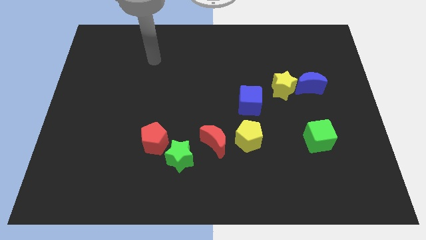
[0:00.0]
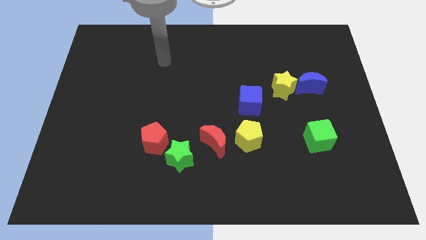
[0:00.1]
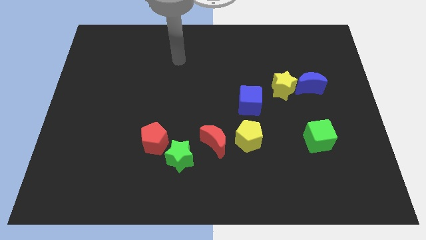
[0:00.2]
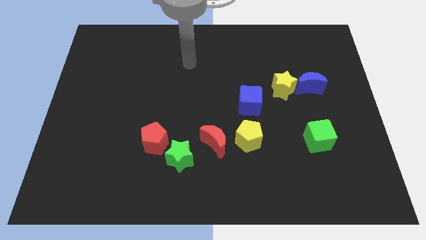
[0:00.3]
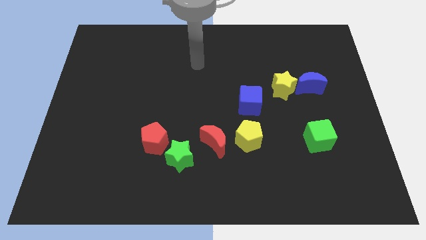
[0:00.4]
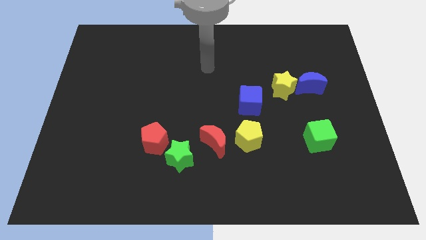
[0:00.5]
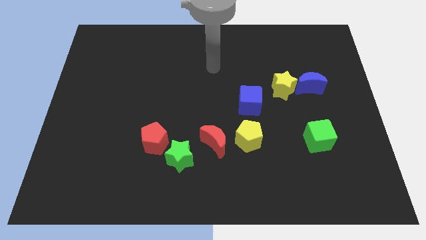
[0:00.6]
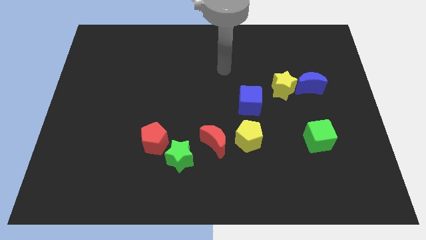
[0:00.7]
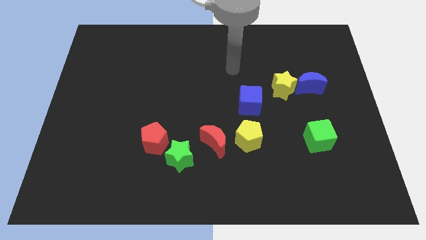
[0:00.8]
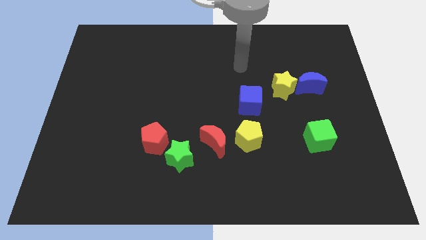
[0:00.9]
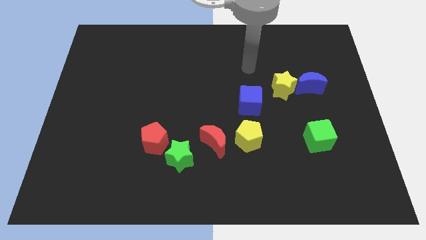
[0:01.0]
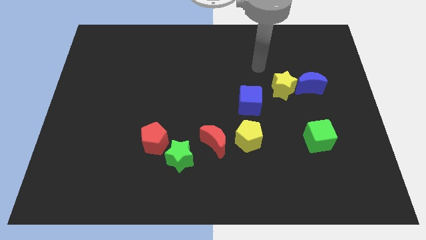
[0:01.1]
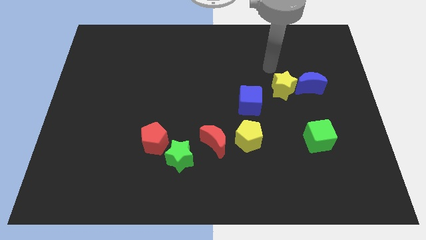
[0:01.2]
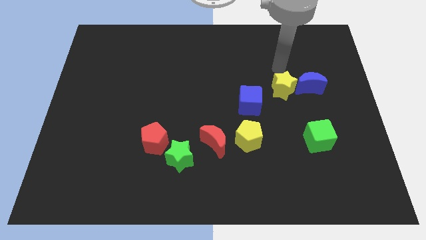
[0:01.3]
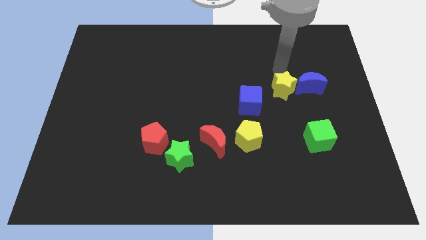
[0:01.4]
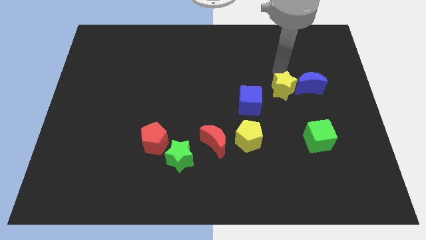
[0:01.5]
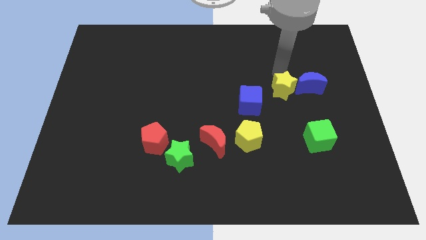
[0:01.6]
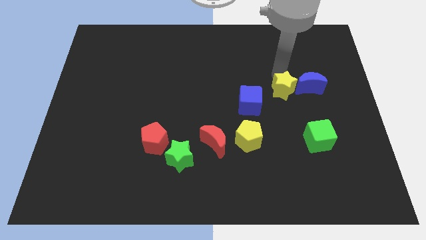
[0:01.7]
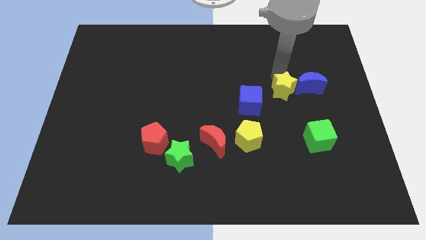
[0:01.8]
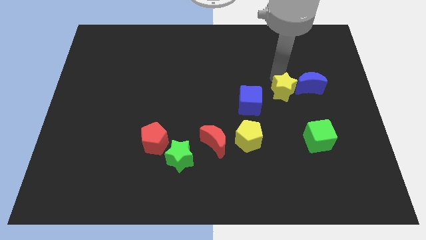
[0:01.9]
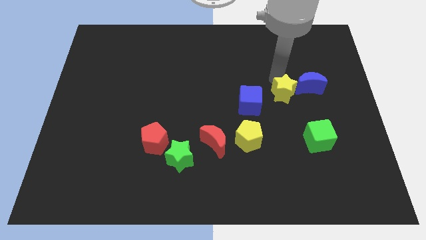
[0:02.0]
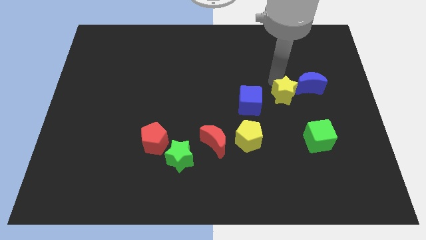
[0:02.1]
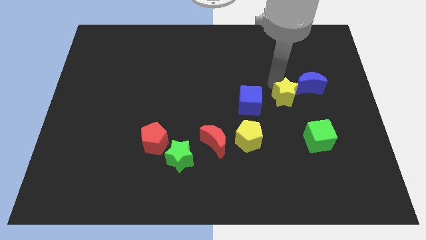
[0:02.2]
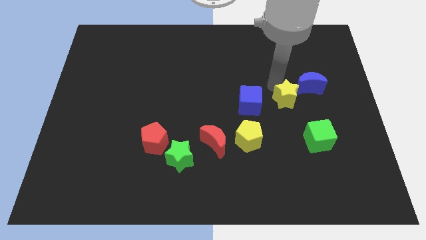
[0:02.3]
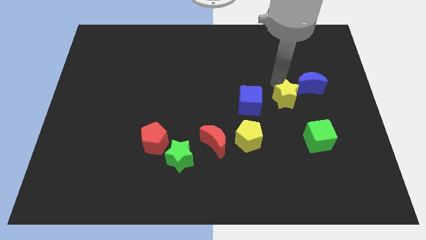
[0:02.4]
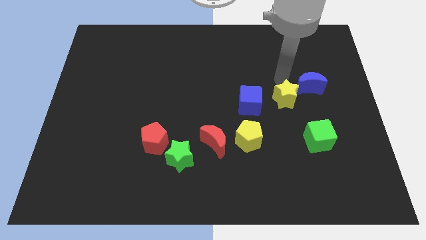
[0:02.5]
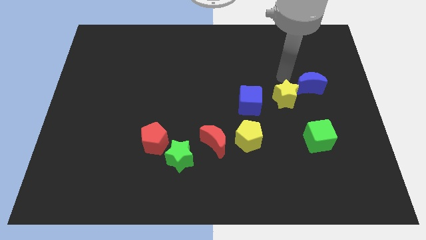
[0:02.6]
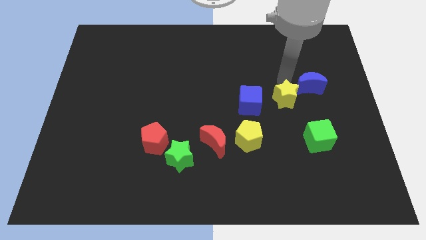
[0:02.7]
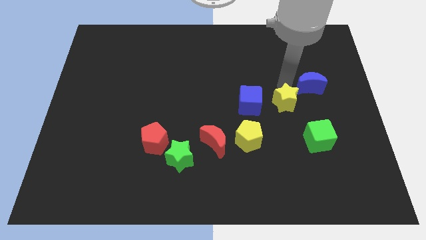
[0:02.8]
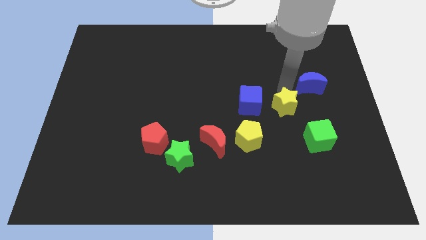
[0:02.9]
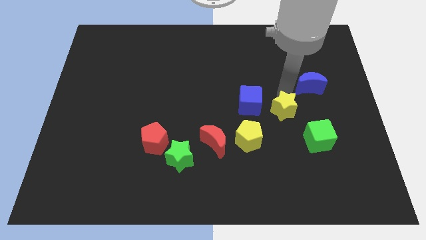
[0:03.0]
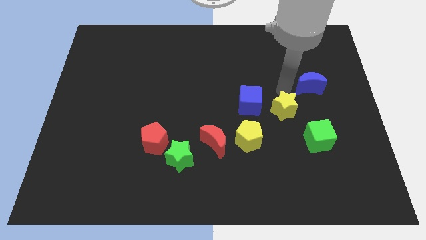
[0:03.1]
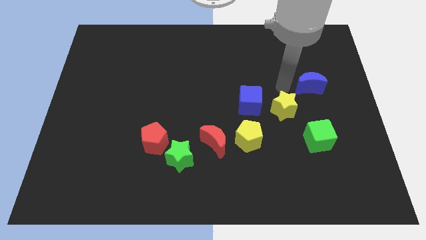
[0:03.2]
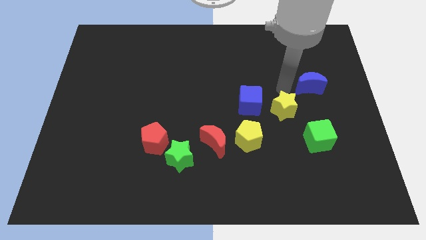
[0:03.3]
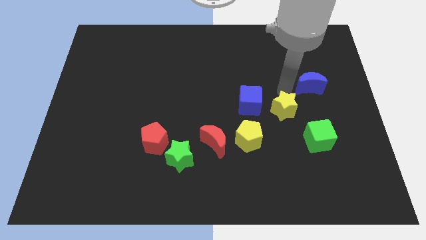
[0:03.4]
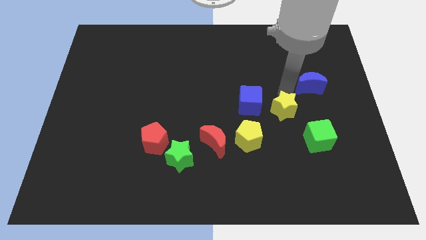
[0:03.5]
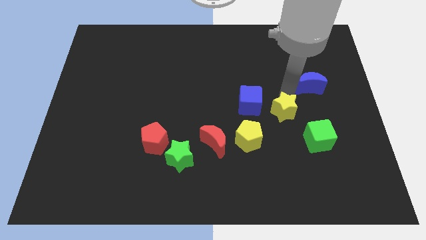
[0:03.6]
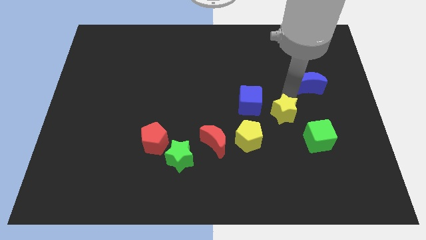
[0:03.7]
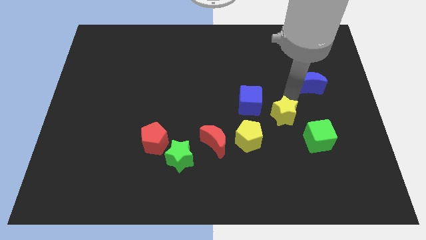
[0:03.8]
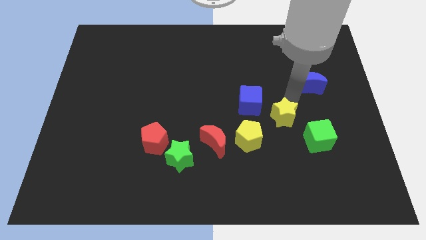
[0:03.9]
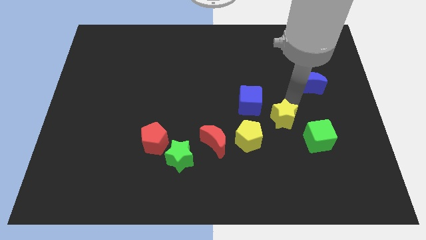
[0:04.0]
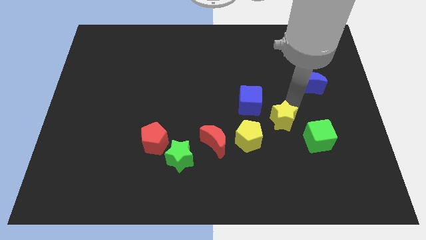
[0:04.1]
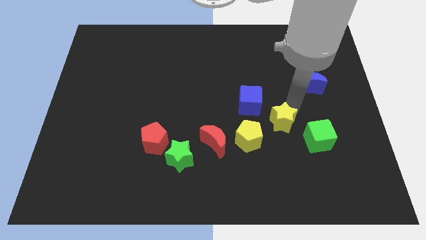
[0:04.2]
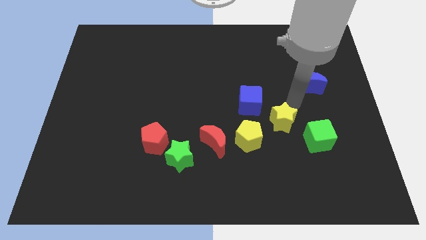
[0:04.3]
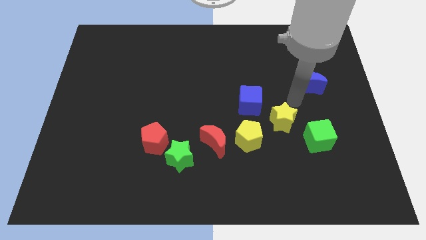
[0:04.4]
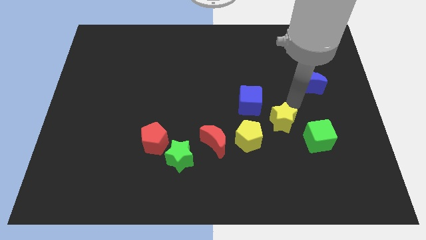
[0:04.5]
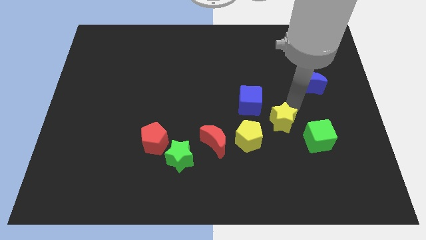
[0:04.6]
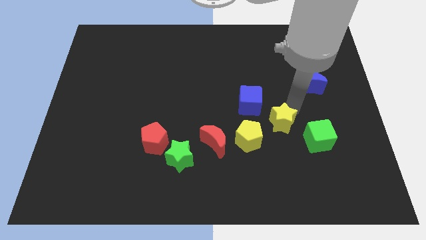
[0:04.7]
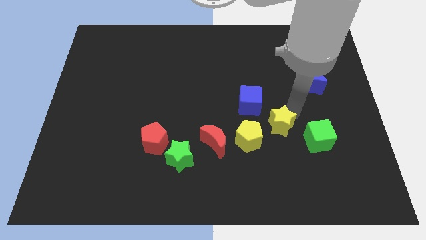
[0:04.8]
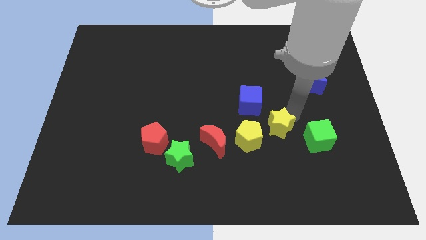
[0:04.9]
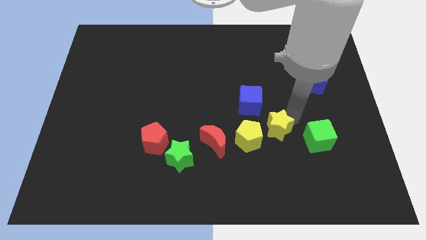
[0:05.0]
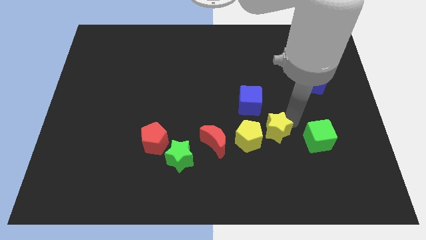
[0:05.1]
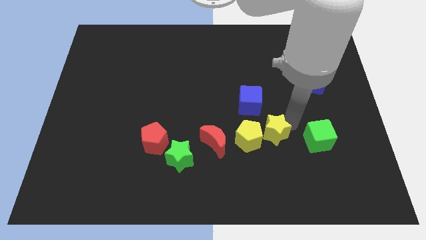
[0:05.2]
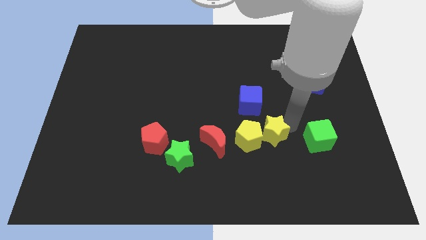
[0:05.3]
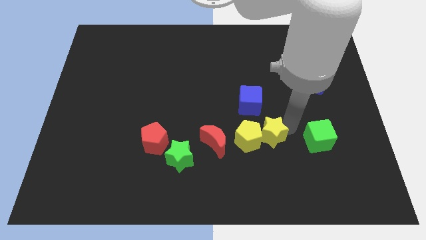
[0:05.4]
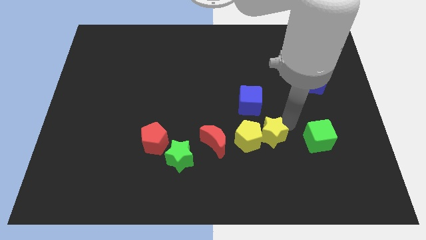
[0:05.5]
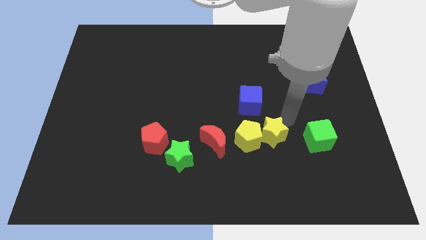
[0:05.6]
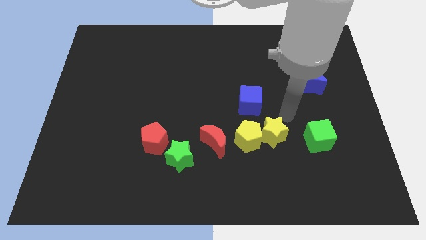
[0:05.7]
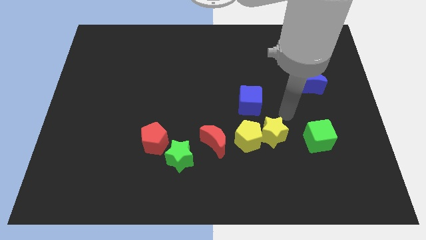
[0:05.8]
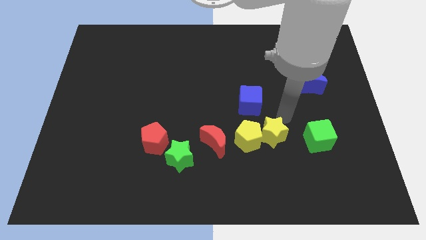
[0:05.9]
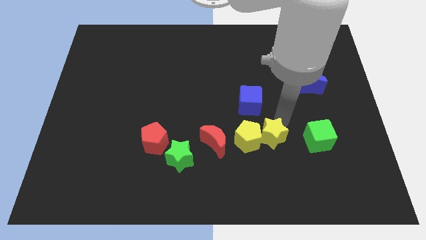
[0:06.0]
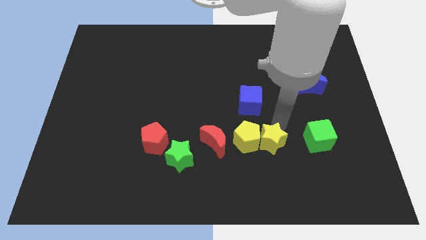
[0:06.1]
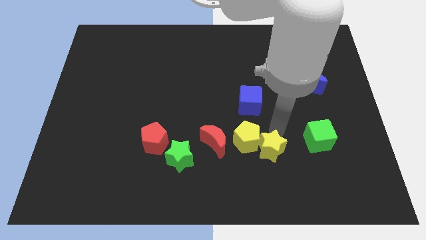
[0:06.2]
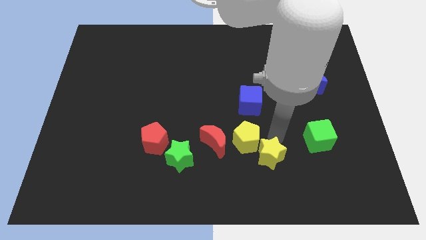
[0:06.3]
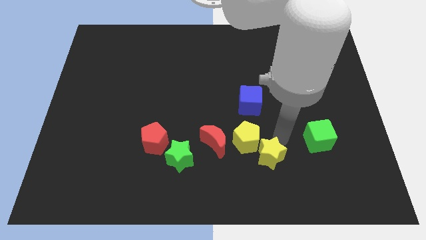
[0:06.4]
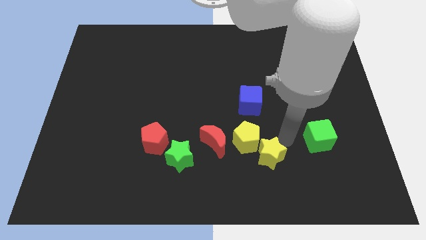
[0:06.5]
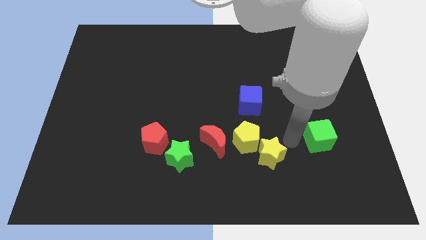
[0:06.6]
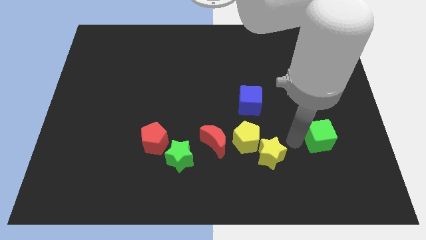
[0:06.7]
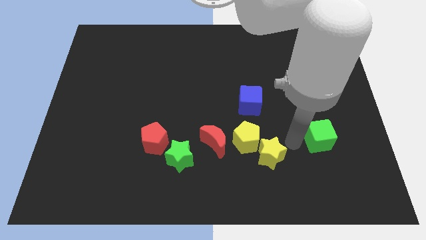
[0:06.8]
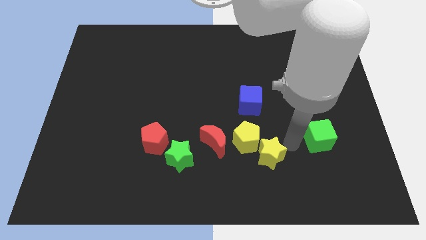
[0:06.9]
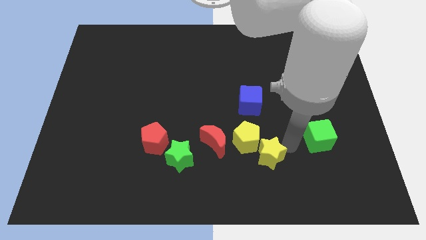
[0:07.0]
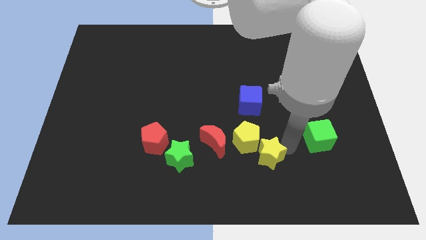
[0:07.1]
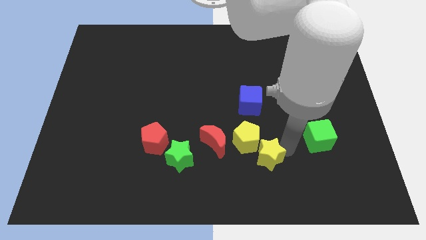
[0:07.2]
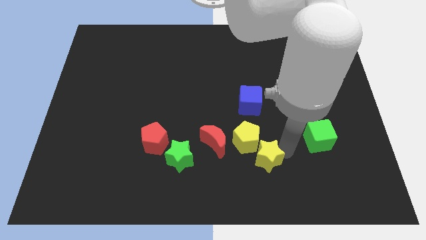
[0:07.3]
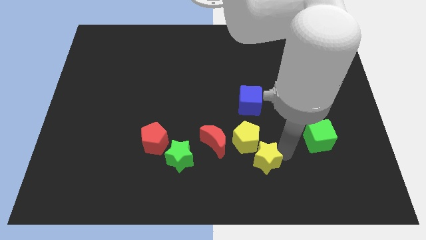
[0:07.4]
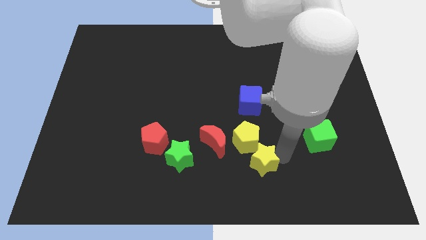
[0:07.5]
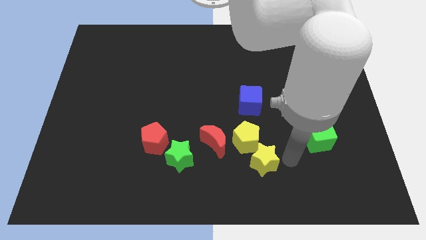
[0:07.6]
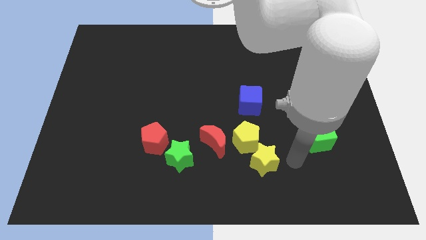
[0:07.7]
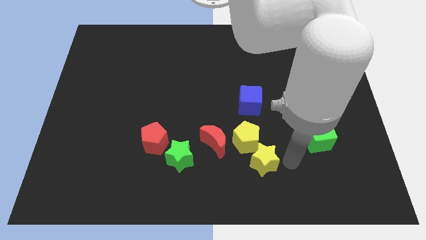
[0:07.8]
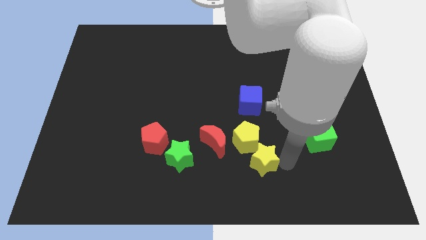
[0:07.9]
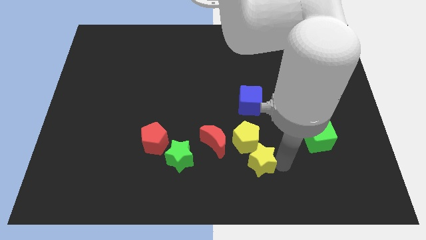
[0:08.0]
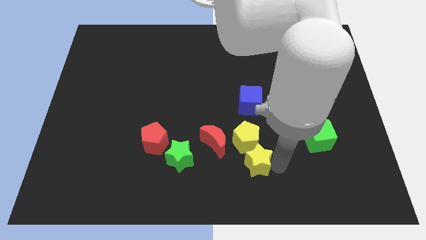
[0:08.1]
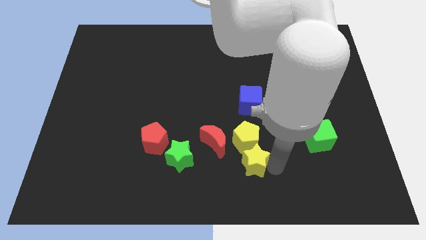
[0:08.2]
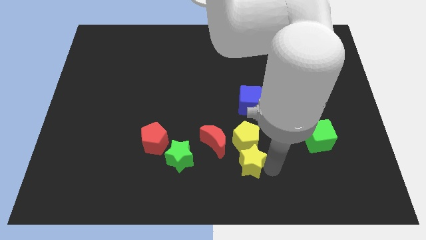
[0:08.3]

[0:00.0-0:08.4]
slide the yellow star to the bottom left of the yellow pentagon
